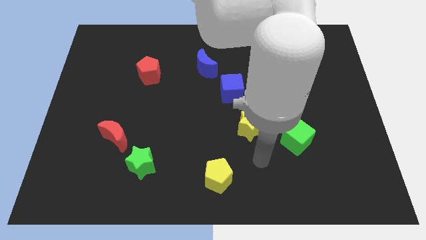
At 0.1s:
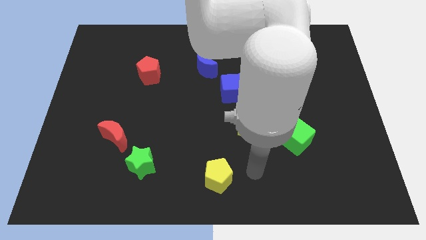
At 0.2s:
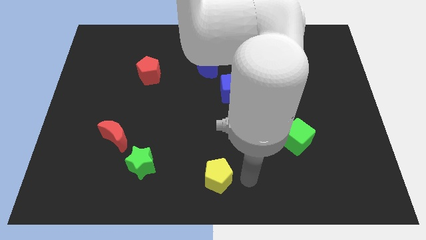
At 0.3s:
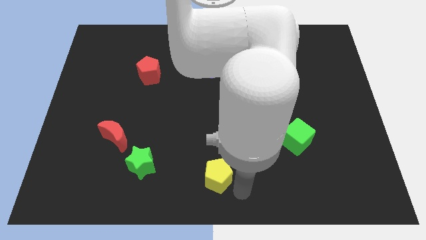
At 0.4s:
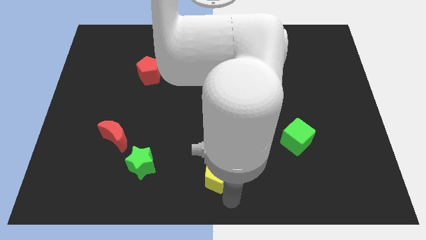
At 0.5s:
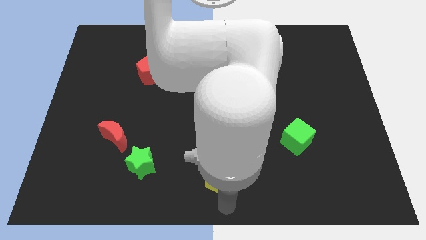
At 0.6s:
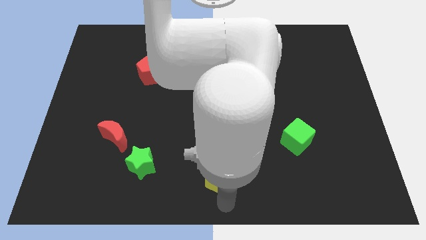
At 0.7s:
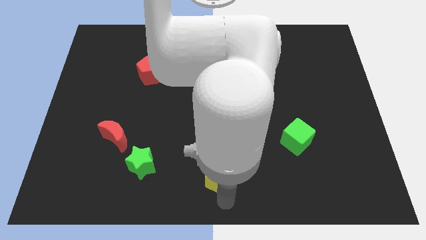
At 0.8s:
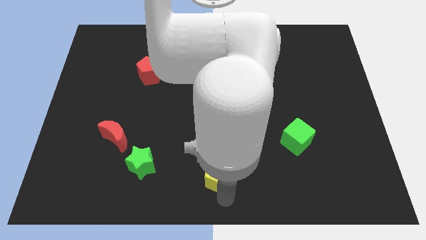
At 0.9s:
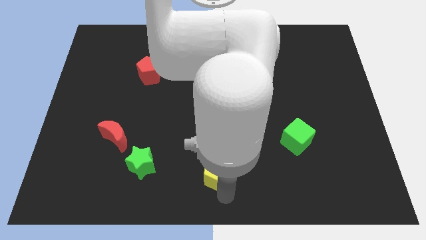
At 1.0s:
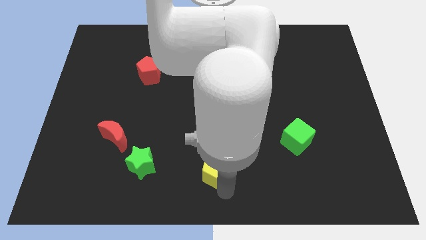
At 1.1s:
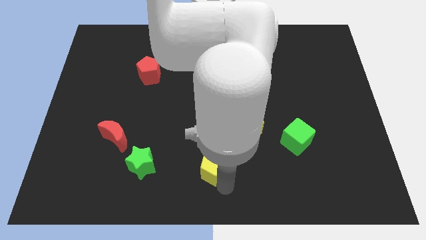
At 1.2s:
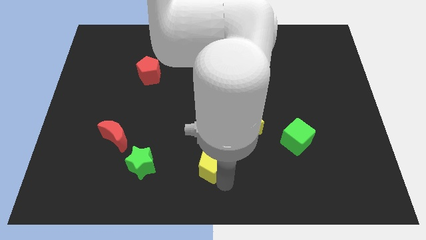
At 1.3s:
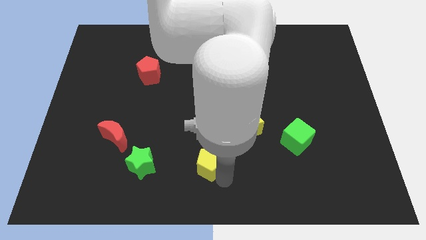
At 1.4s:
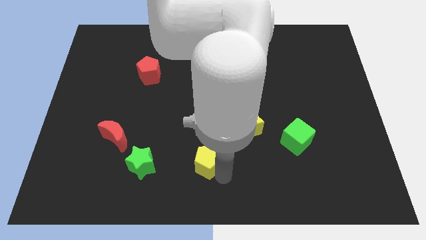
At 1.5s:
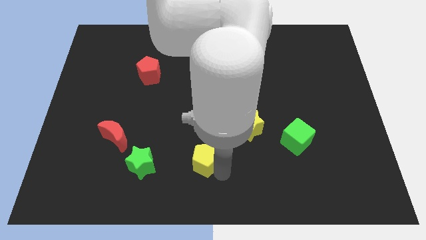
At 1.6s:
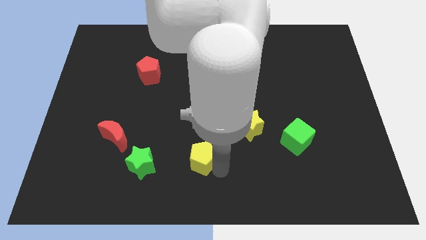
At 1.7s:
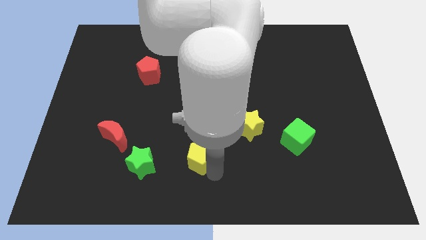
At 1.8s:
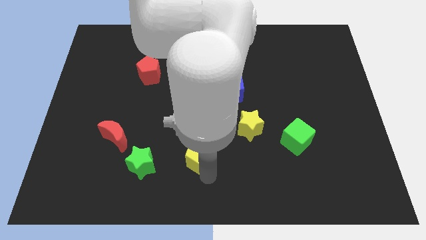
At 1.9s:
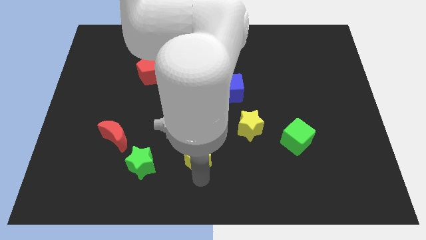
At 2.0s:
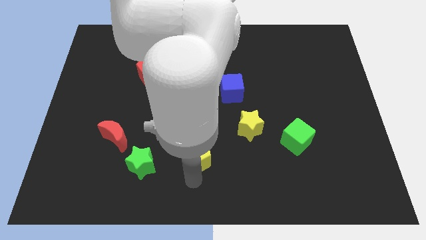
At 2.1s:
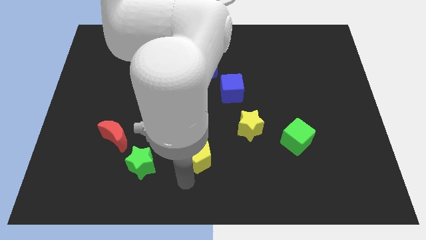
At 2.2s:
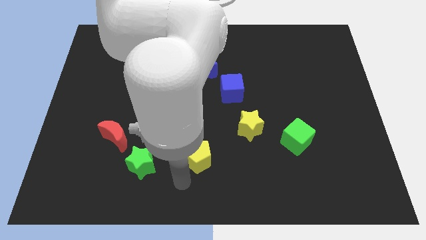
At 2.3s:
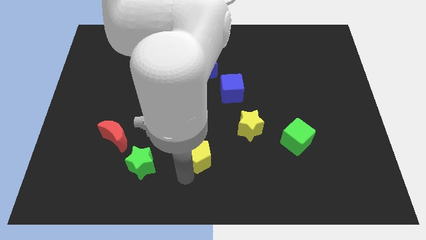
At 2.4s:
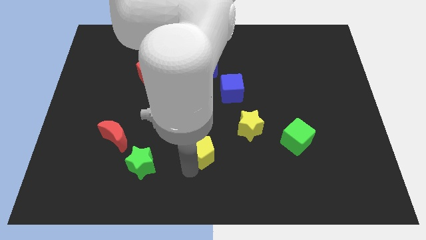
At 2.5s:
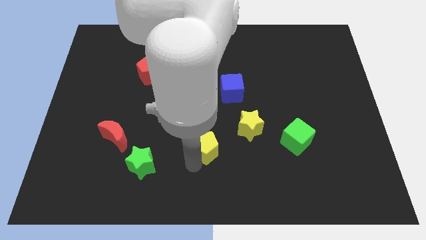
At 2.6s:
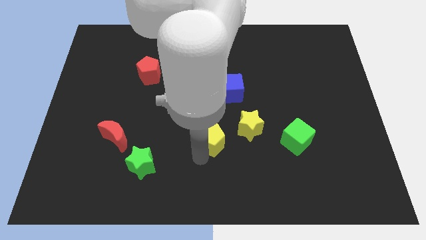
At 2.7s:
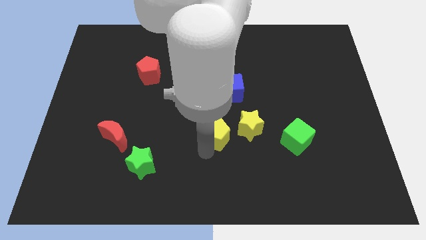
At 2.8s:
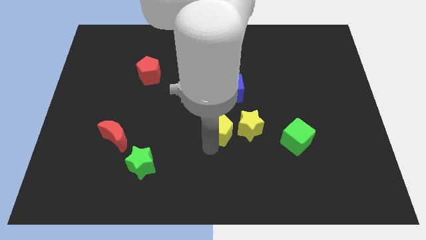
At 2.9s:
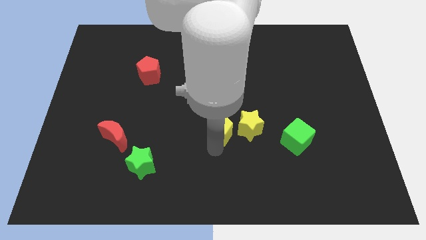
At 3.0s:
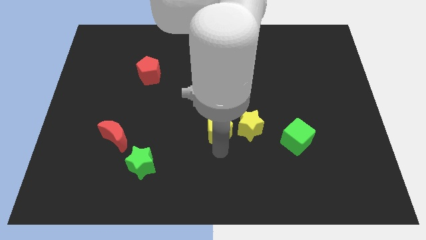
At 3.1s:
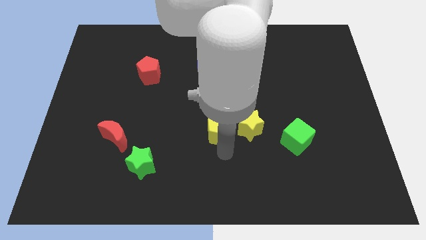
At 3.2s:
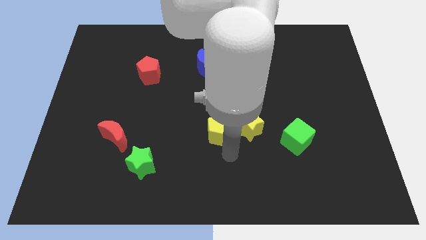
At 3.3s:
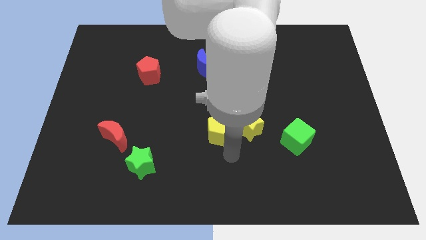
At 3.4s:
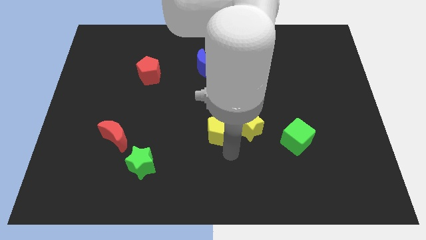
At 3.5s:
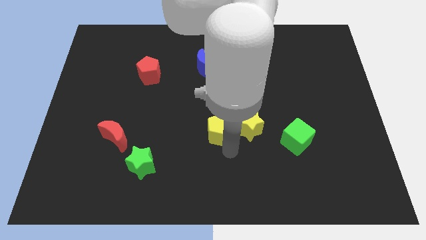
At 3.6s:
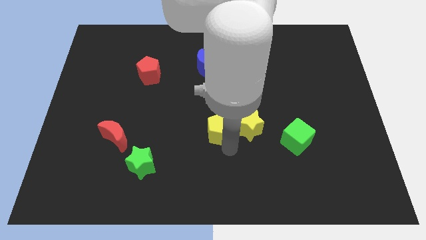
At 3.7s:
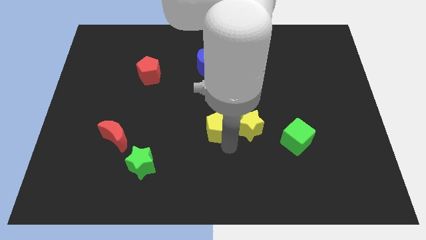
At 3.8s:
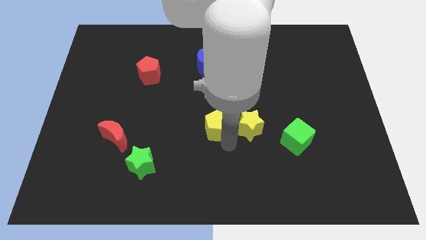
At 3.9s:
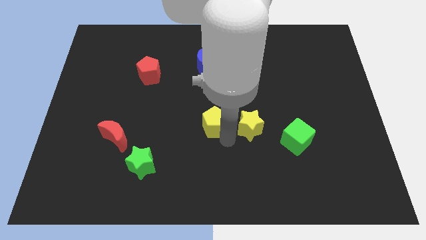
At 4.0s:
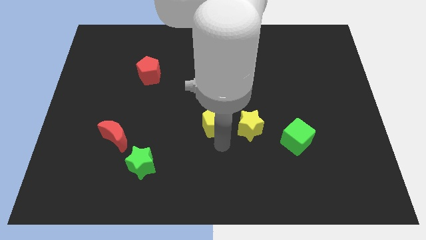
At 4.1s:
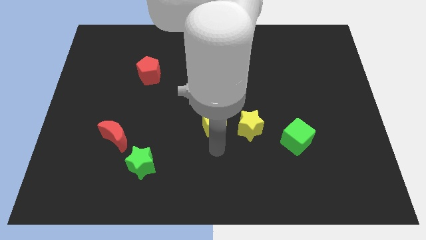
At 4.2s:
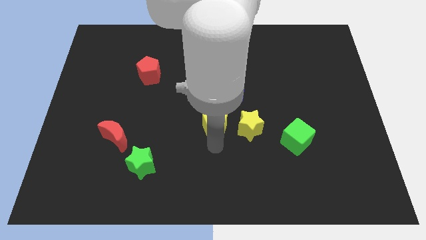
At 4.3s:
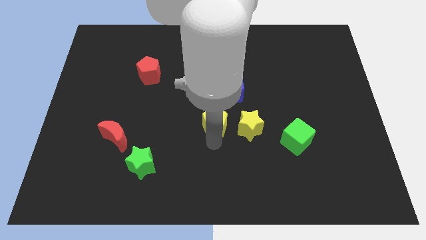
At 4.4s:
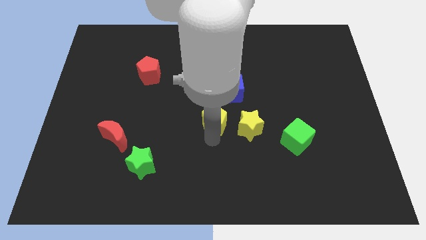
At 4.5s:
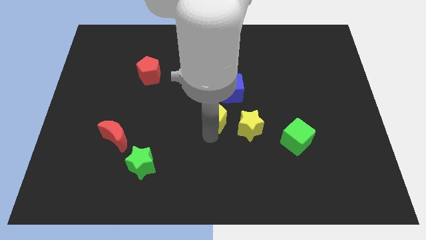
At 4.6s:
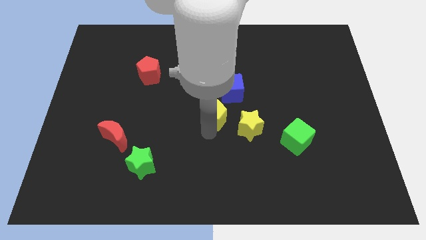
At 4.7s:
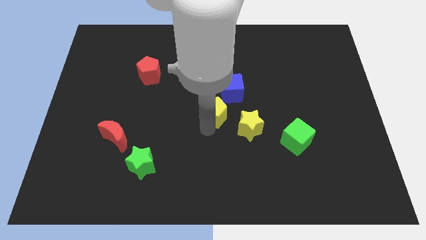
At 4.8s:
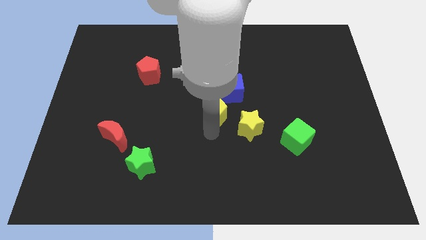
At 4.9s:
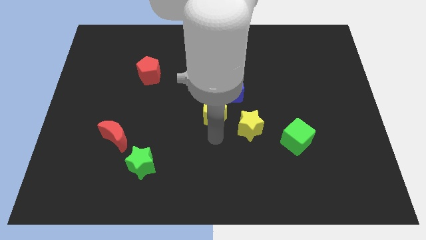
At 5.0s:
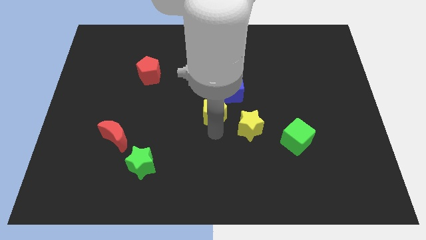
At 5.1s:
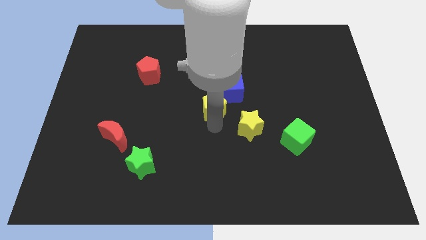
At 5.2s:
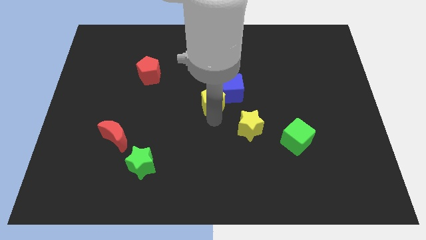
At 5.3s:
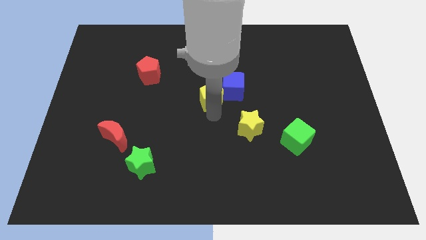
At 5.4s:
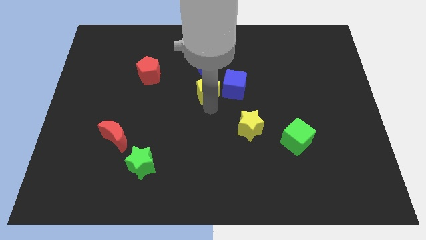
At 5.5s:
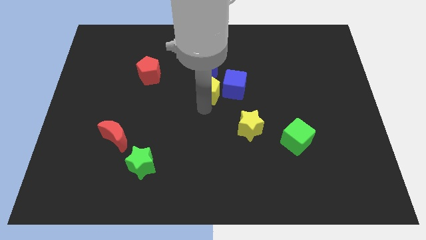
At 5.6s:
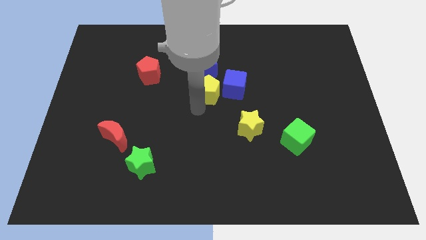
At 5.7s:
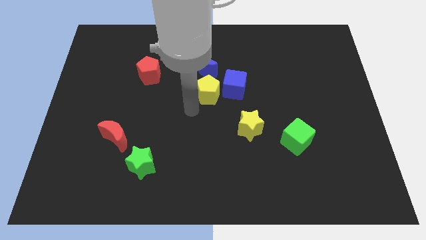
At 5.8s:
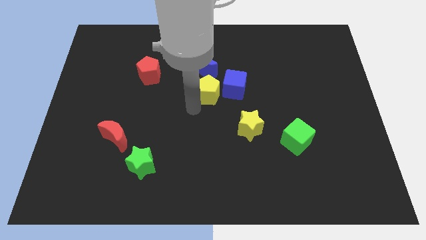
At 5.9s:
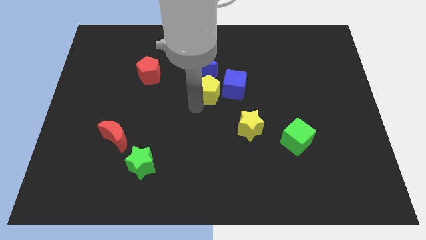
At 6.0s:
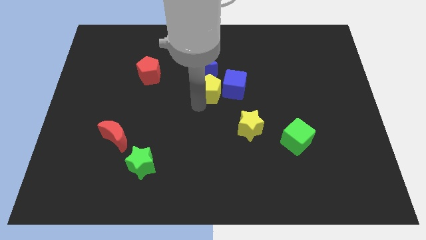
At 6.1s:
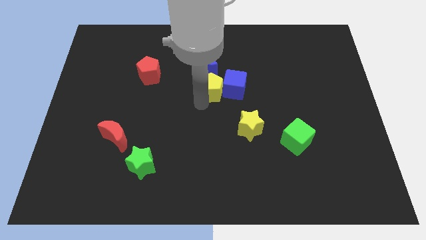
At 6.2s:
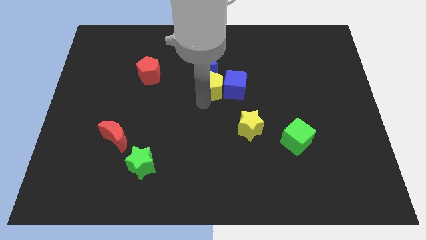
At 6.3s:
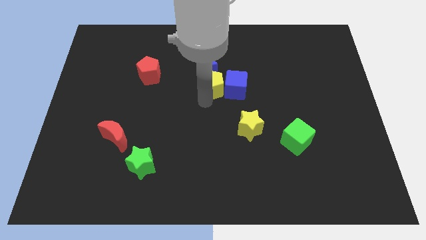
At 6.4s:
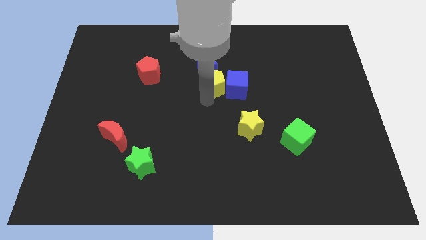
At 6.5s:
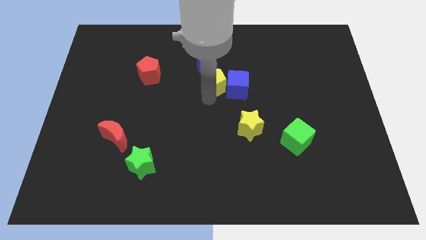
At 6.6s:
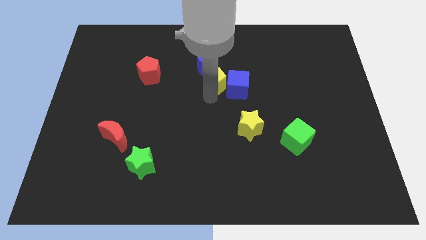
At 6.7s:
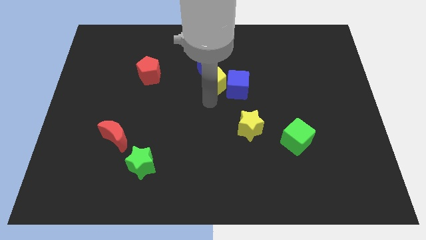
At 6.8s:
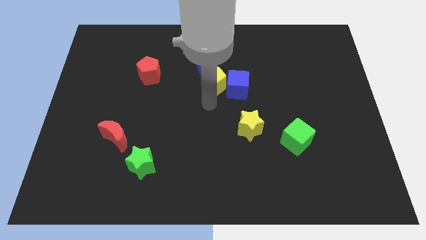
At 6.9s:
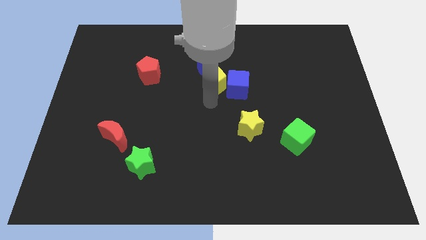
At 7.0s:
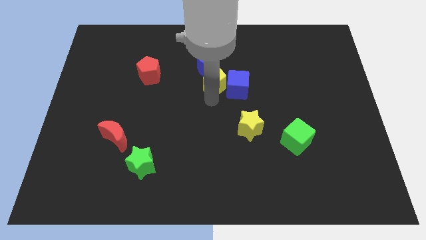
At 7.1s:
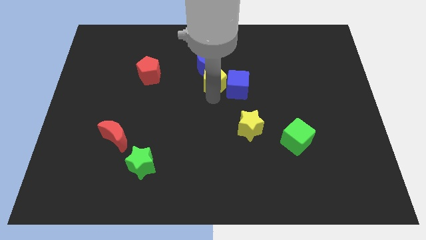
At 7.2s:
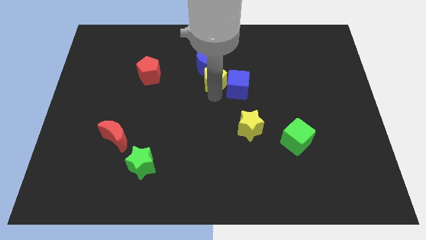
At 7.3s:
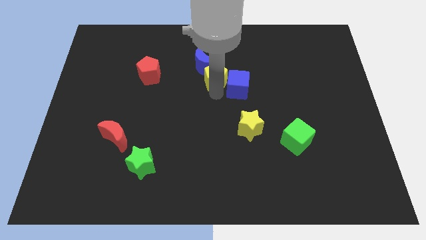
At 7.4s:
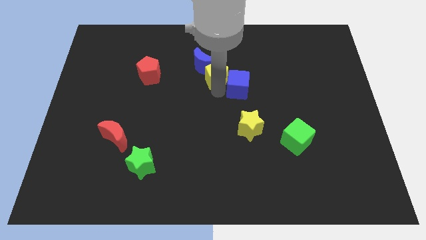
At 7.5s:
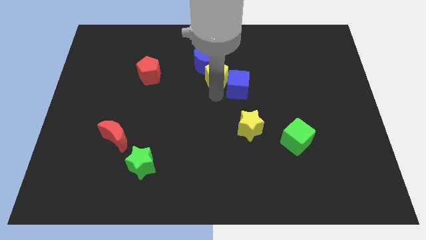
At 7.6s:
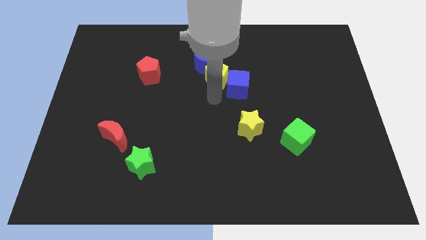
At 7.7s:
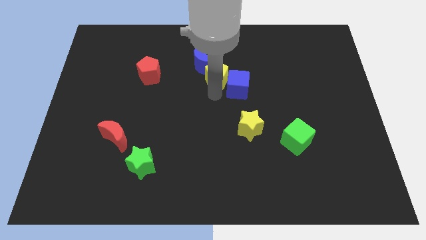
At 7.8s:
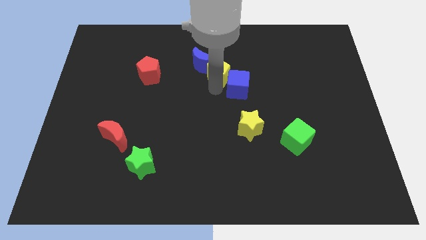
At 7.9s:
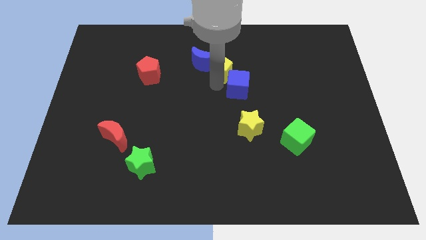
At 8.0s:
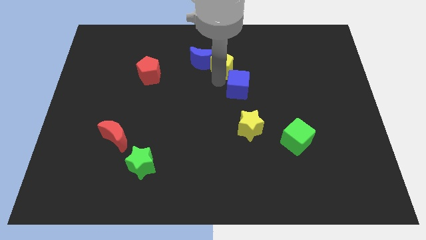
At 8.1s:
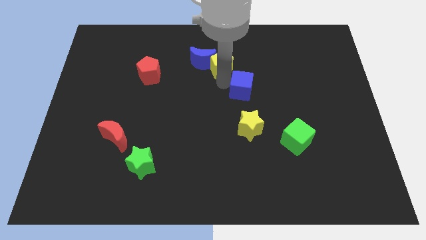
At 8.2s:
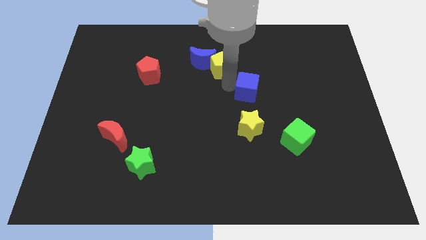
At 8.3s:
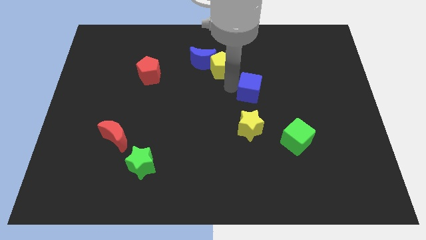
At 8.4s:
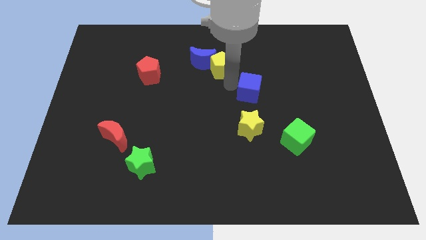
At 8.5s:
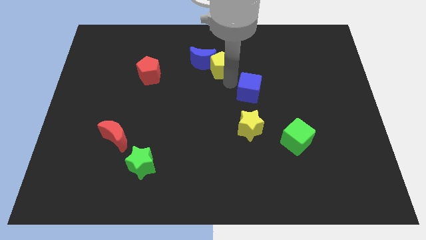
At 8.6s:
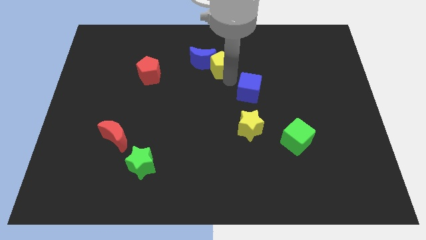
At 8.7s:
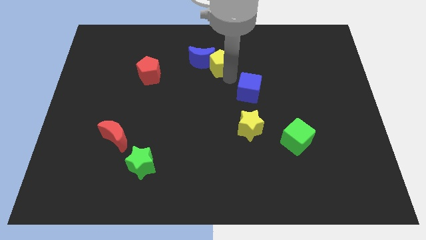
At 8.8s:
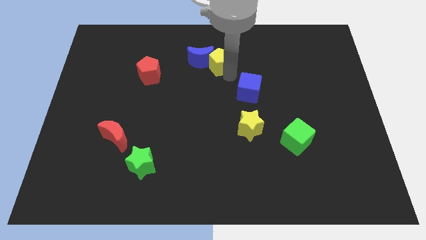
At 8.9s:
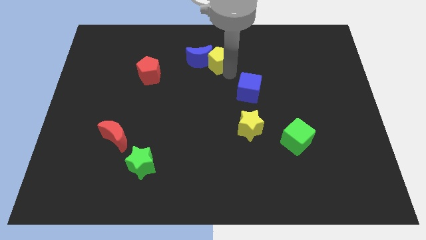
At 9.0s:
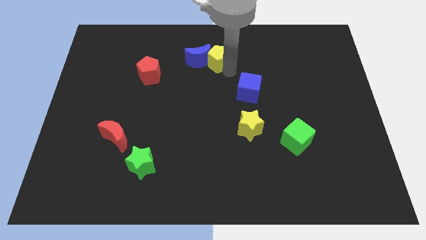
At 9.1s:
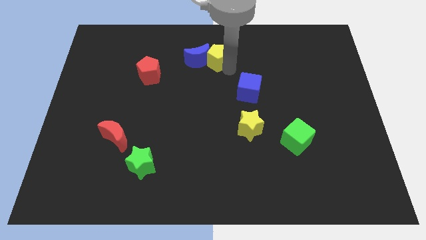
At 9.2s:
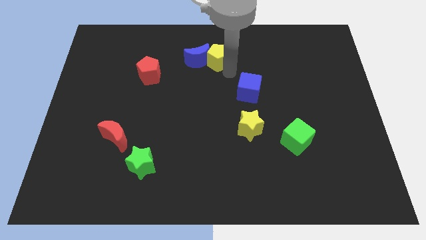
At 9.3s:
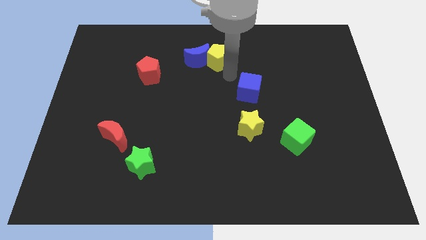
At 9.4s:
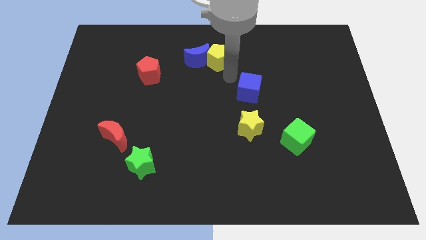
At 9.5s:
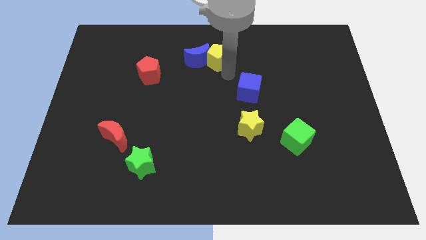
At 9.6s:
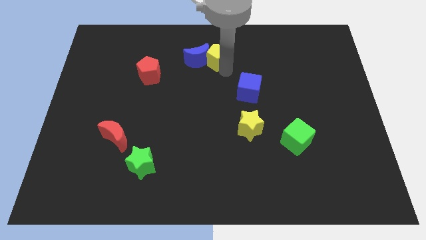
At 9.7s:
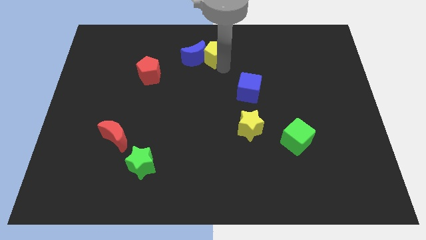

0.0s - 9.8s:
slide the yellow pentagon to the top side
